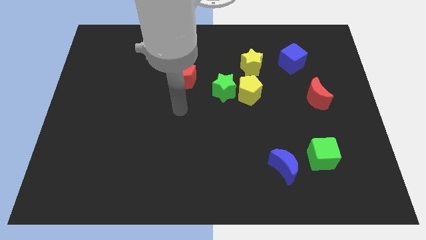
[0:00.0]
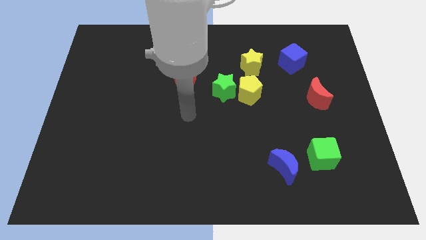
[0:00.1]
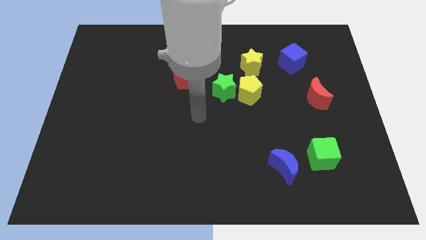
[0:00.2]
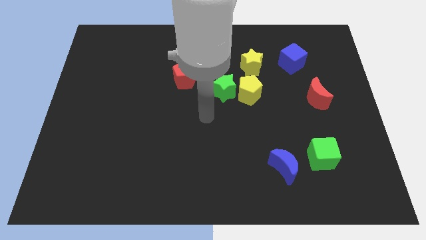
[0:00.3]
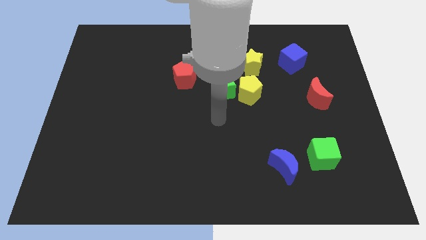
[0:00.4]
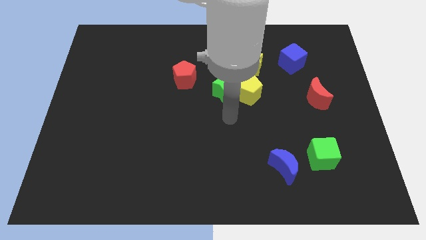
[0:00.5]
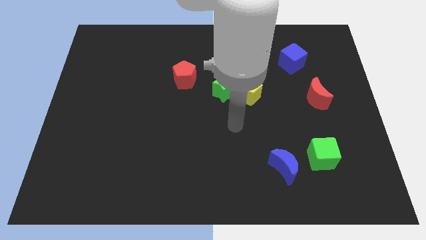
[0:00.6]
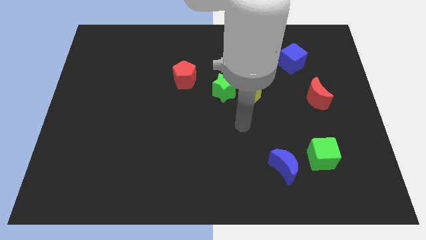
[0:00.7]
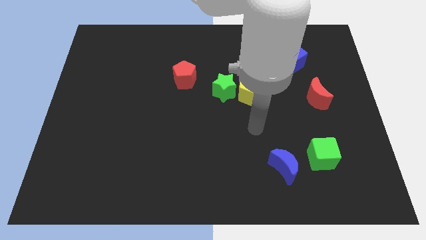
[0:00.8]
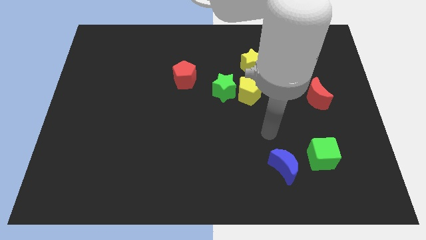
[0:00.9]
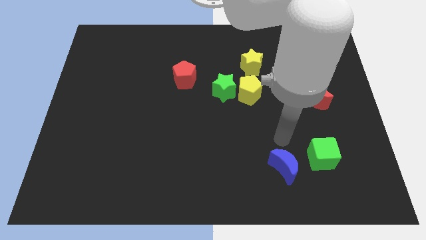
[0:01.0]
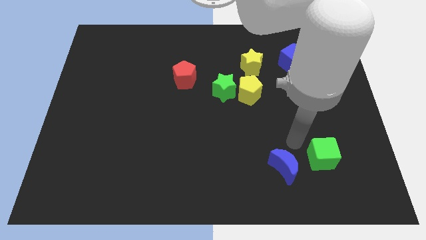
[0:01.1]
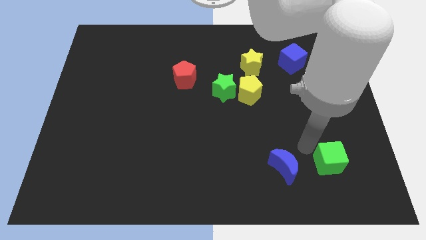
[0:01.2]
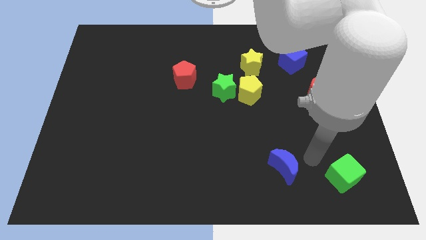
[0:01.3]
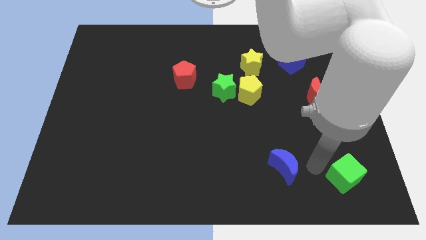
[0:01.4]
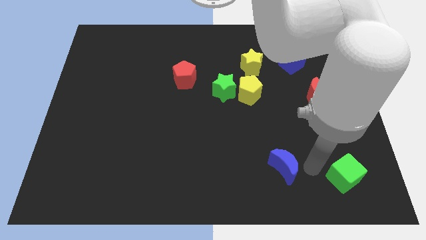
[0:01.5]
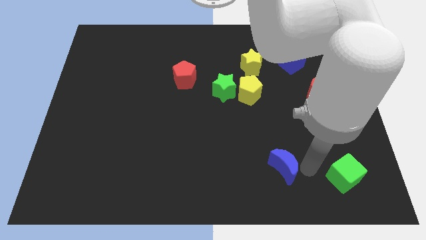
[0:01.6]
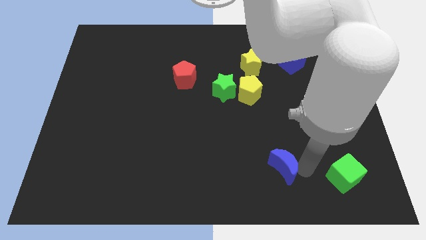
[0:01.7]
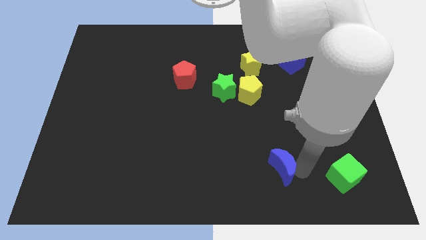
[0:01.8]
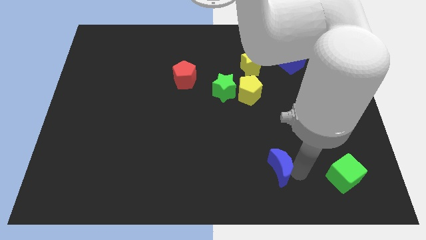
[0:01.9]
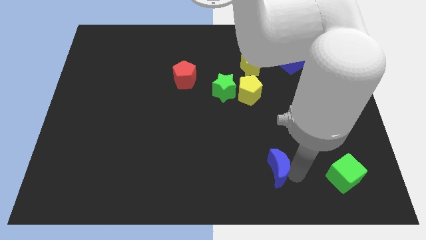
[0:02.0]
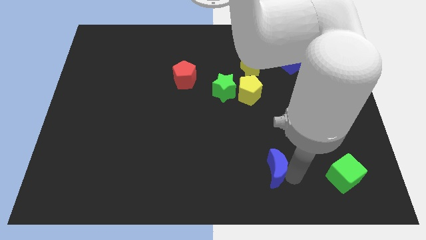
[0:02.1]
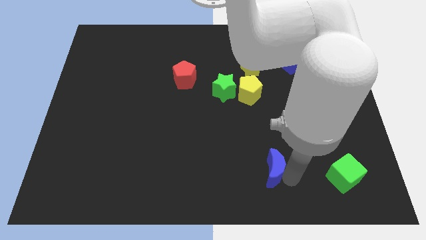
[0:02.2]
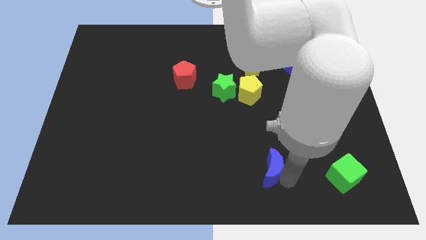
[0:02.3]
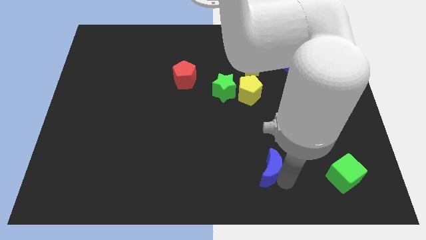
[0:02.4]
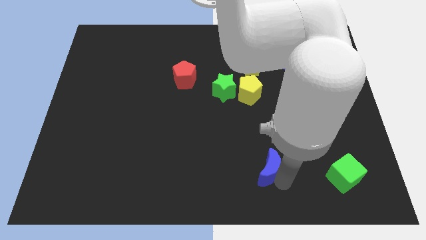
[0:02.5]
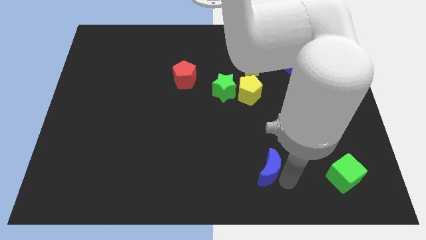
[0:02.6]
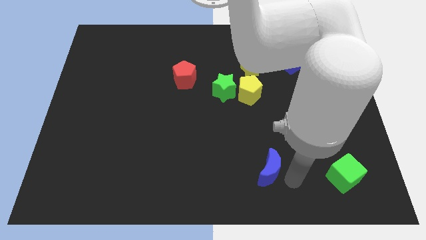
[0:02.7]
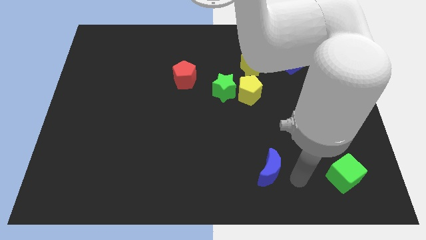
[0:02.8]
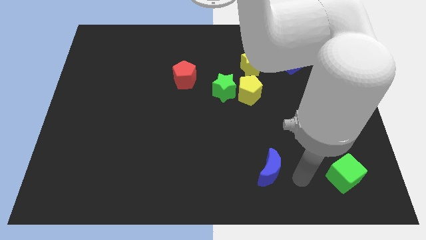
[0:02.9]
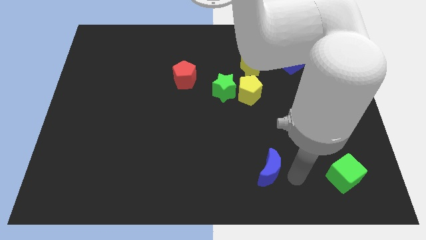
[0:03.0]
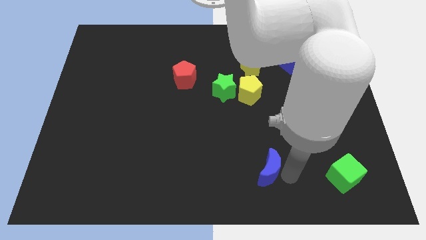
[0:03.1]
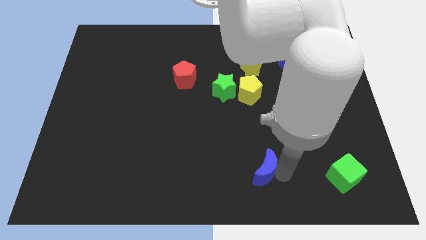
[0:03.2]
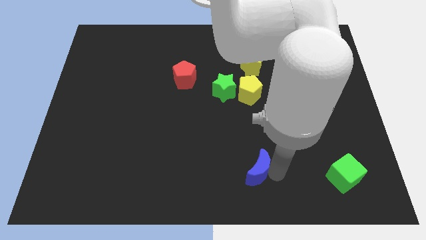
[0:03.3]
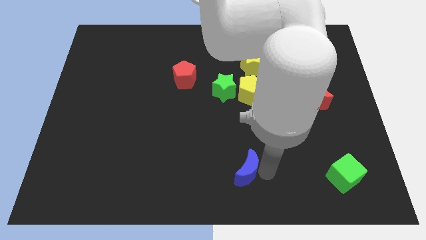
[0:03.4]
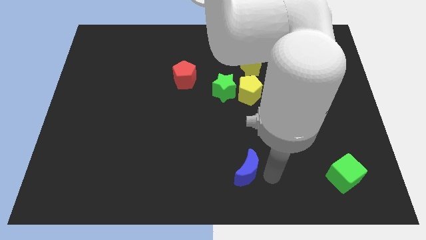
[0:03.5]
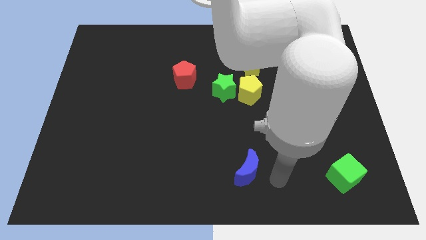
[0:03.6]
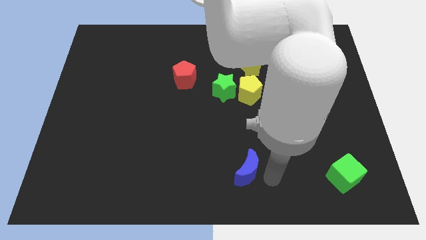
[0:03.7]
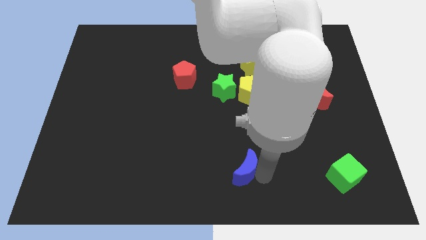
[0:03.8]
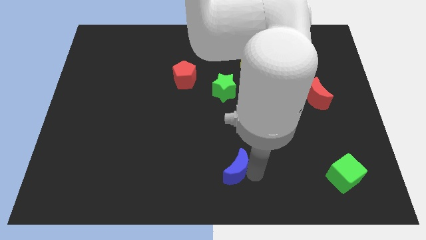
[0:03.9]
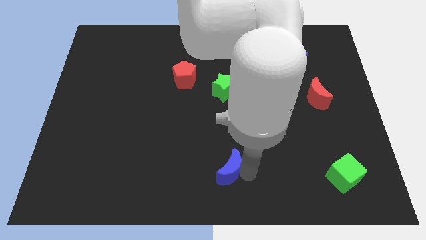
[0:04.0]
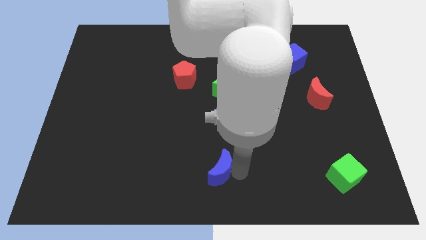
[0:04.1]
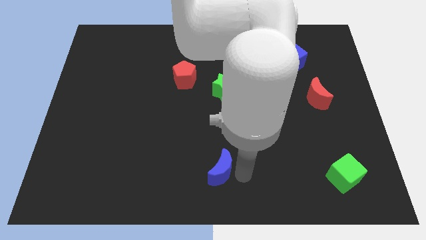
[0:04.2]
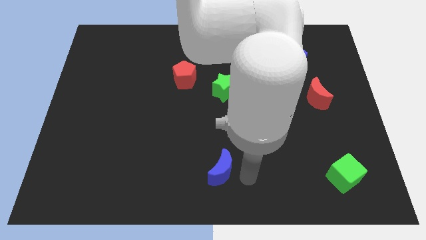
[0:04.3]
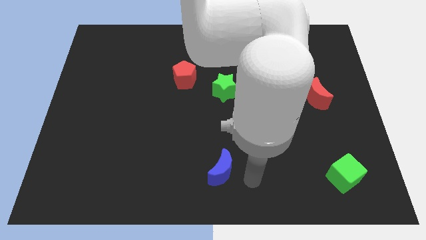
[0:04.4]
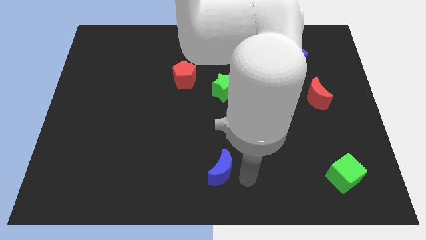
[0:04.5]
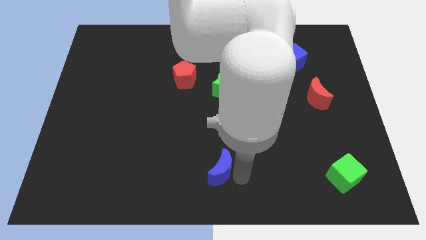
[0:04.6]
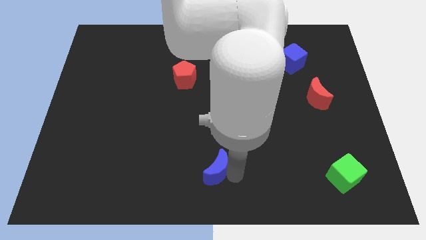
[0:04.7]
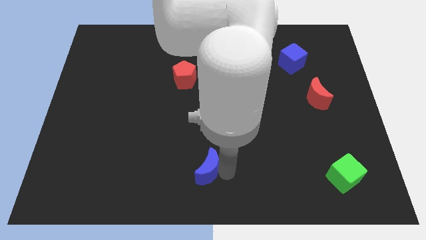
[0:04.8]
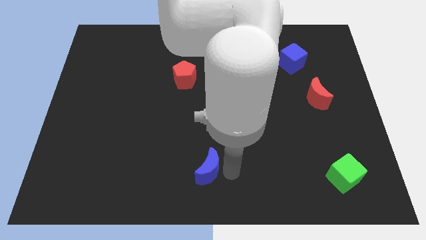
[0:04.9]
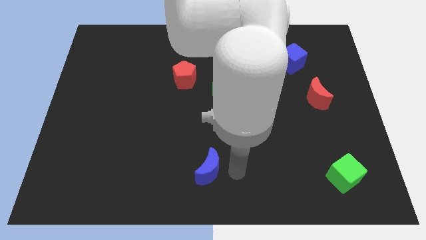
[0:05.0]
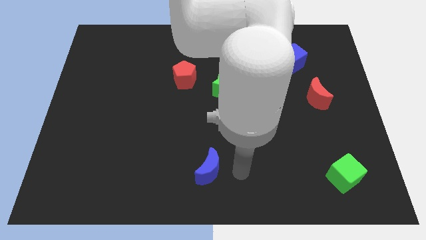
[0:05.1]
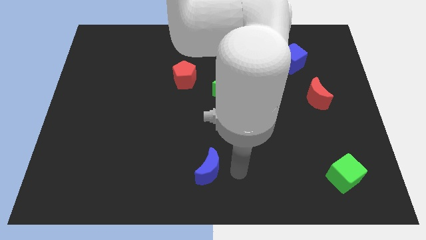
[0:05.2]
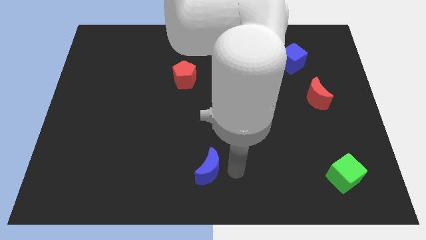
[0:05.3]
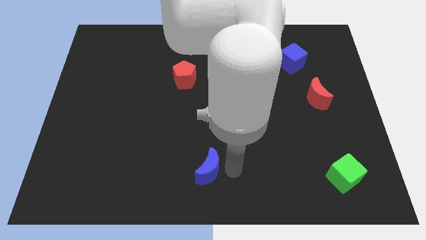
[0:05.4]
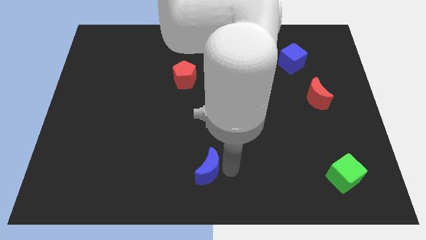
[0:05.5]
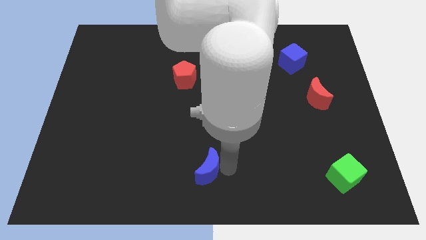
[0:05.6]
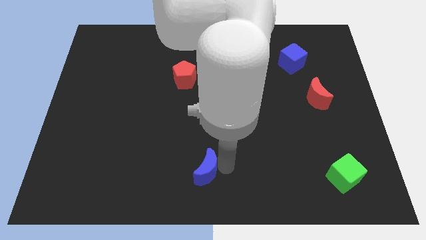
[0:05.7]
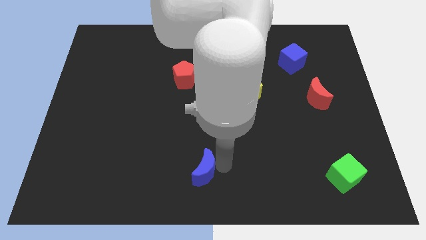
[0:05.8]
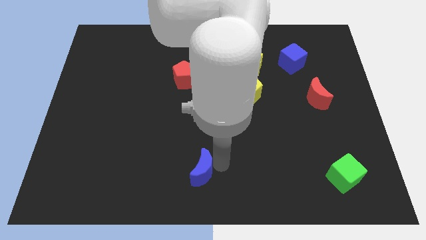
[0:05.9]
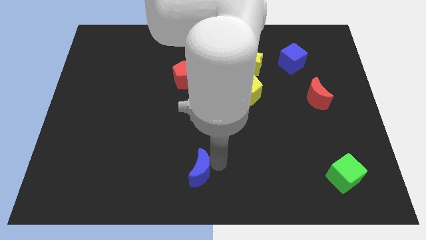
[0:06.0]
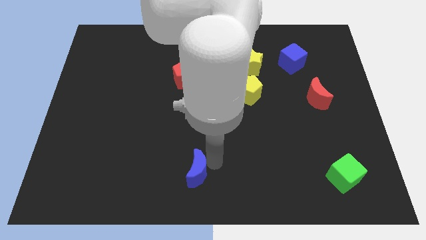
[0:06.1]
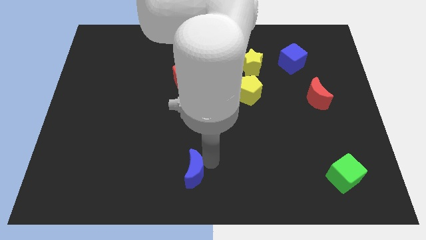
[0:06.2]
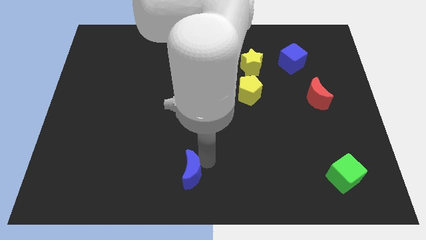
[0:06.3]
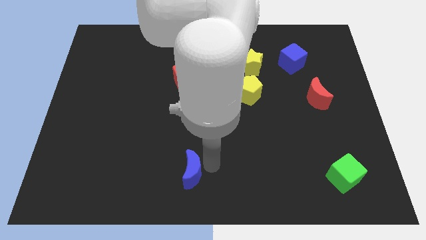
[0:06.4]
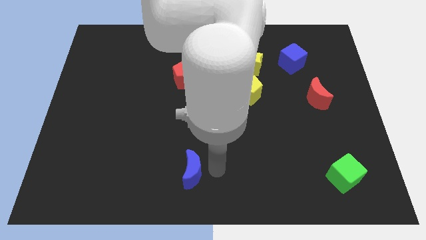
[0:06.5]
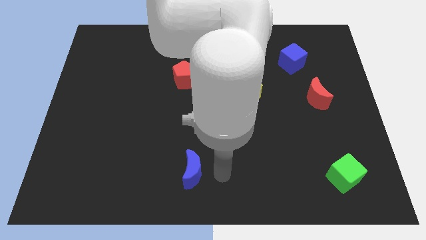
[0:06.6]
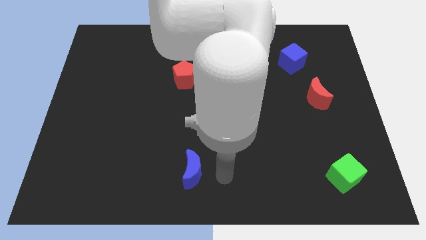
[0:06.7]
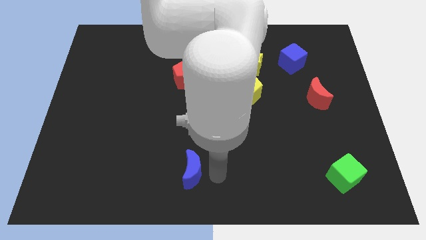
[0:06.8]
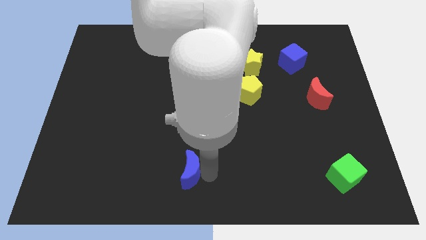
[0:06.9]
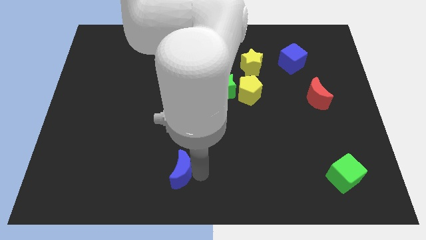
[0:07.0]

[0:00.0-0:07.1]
slide the blue moon left

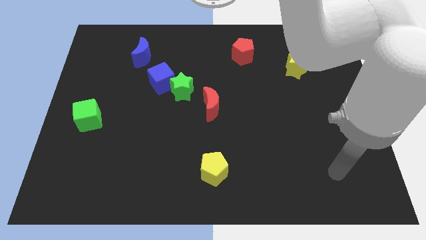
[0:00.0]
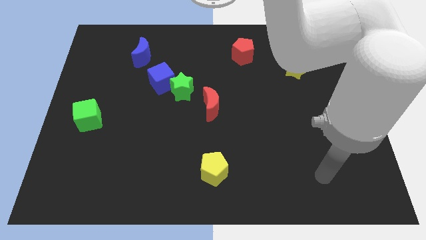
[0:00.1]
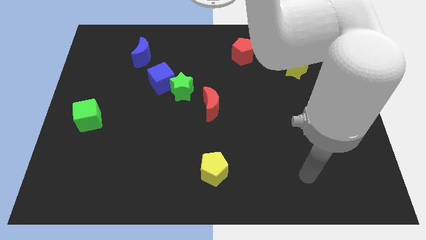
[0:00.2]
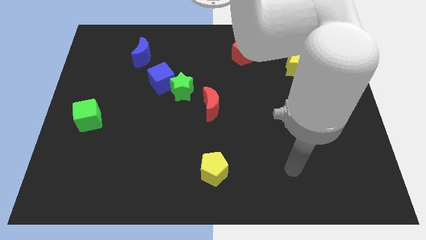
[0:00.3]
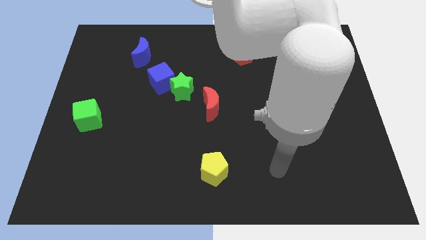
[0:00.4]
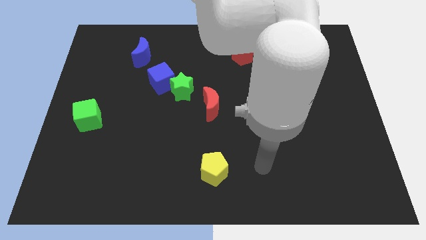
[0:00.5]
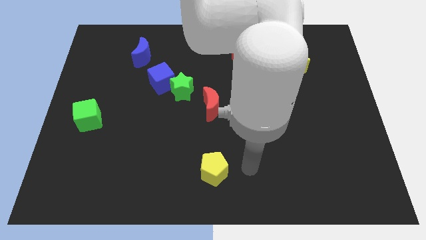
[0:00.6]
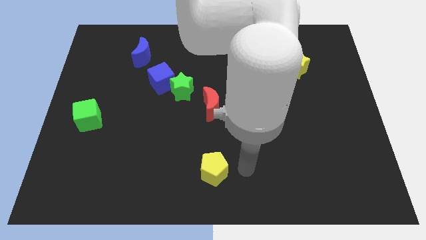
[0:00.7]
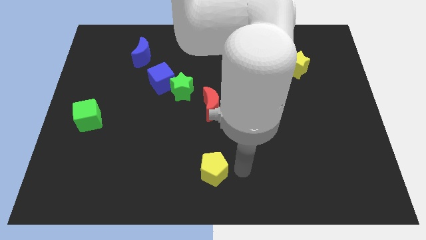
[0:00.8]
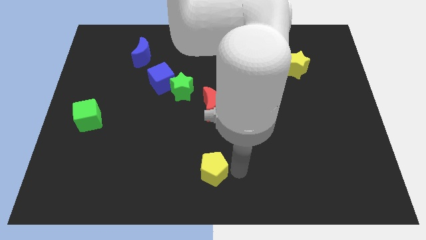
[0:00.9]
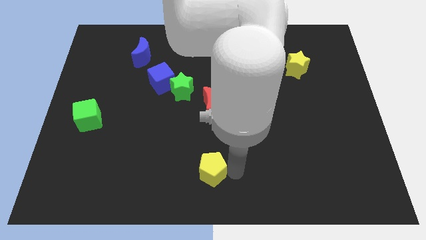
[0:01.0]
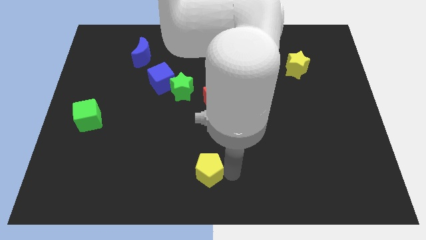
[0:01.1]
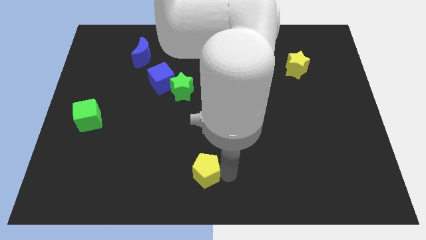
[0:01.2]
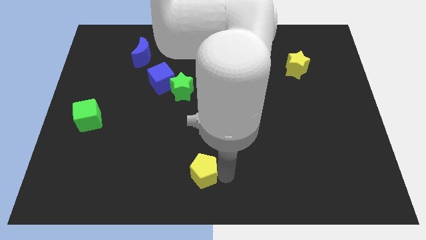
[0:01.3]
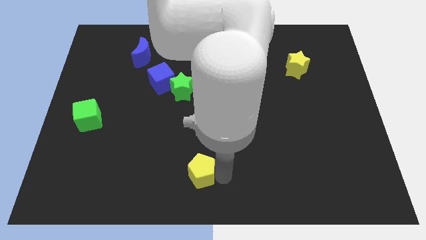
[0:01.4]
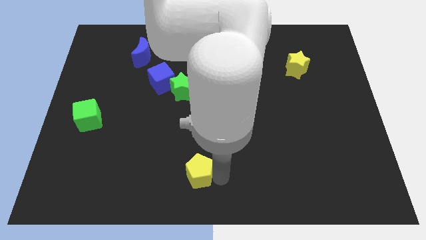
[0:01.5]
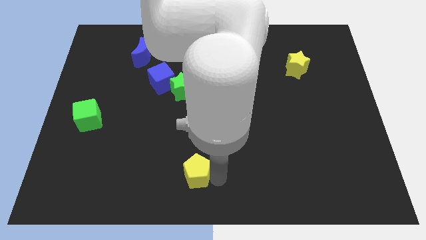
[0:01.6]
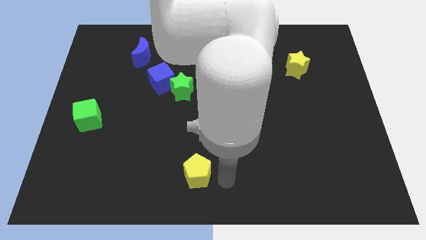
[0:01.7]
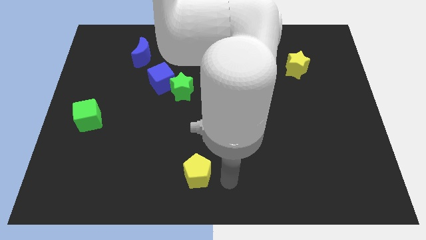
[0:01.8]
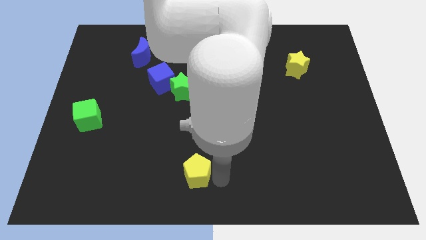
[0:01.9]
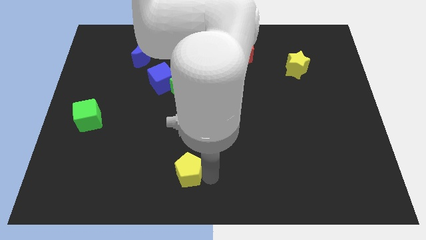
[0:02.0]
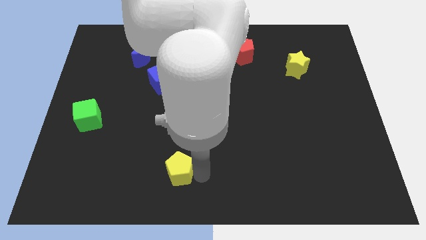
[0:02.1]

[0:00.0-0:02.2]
slightly push the yellow pentagon to the left
